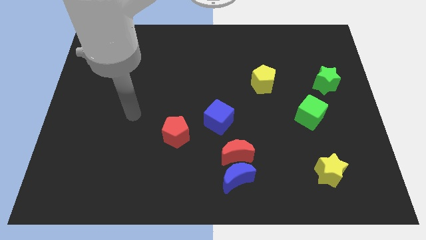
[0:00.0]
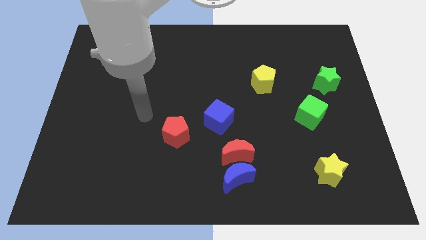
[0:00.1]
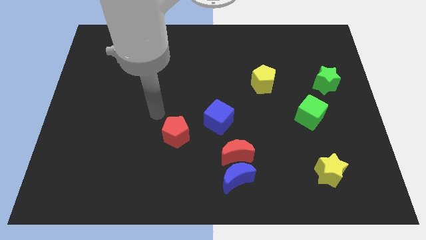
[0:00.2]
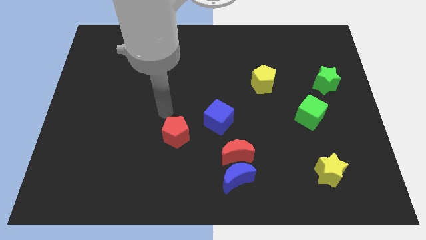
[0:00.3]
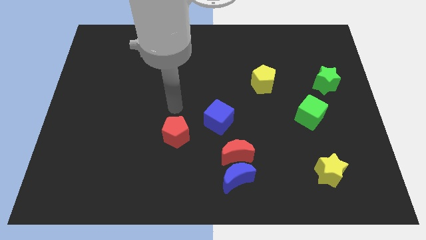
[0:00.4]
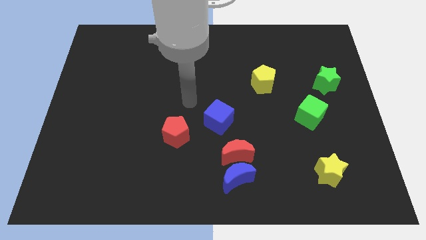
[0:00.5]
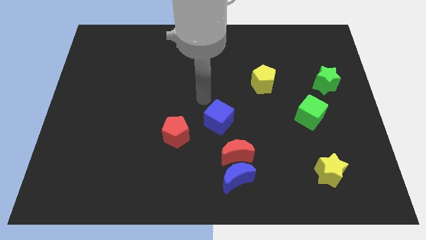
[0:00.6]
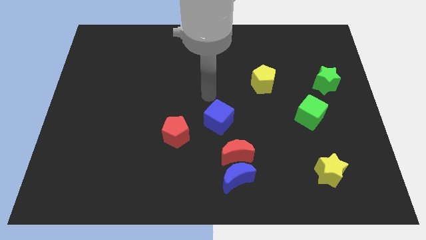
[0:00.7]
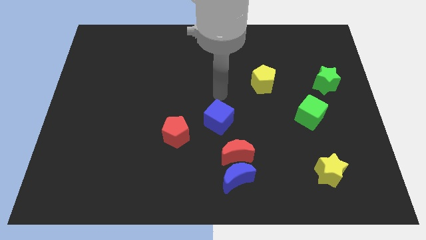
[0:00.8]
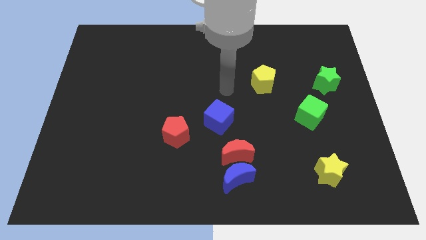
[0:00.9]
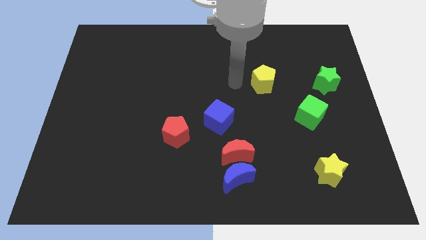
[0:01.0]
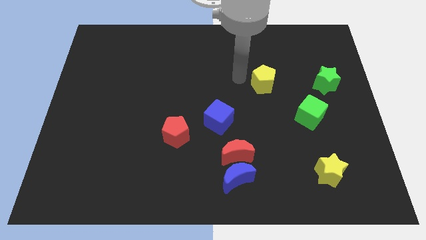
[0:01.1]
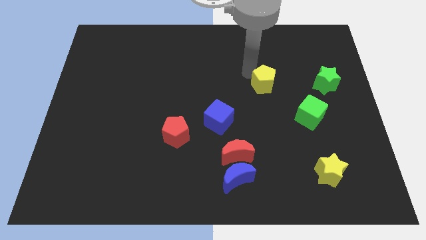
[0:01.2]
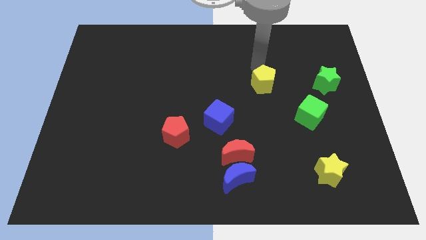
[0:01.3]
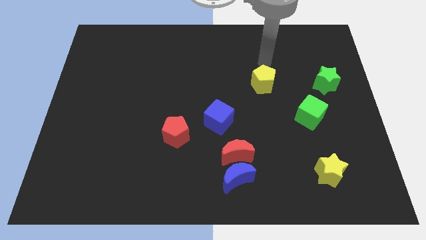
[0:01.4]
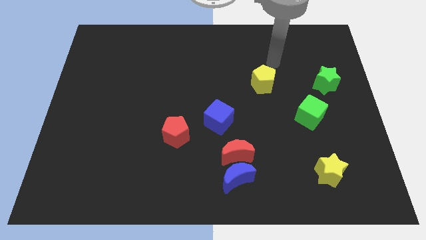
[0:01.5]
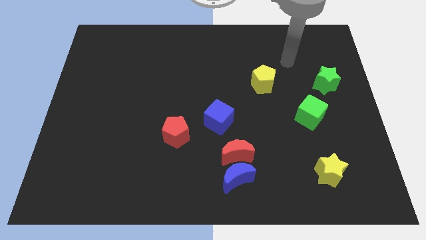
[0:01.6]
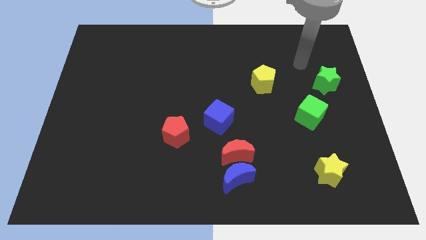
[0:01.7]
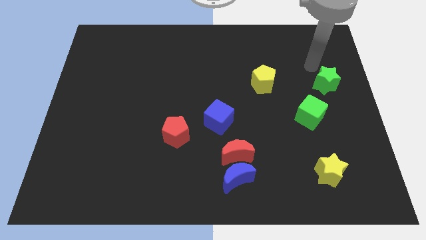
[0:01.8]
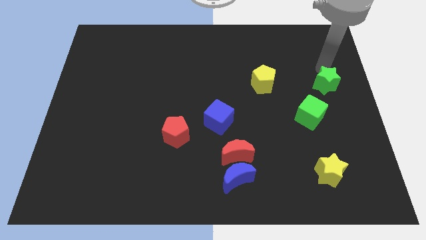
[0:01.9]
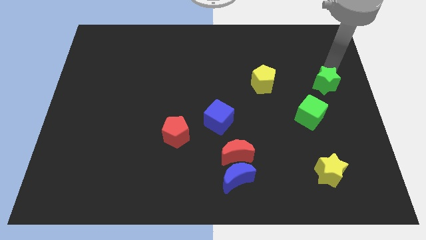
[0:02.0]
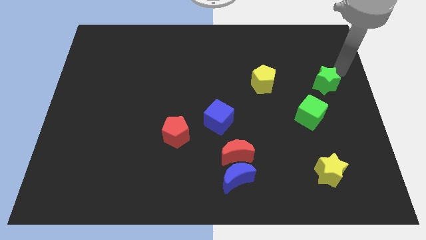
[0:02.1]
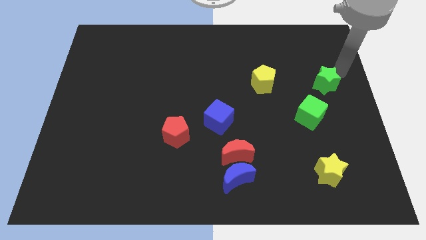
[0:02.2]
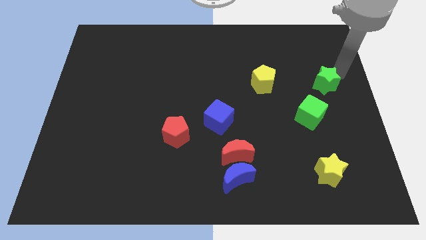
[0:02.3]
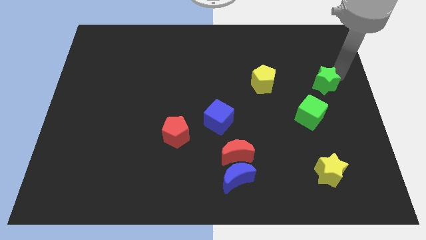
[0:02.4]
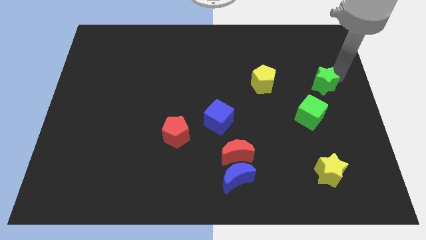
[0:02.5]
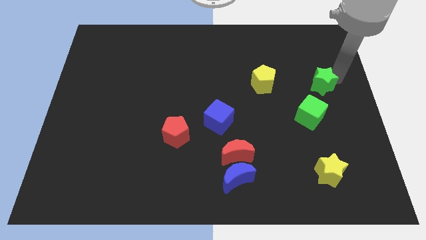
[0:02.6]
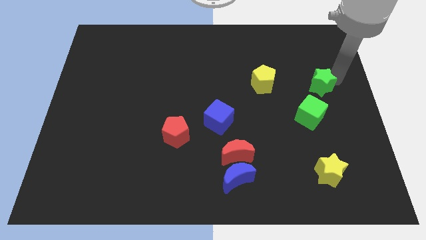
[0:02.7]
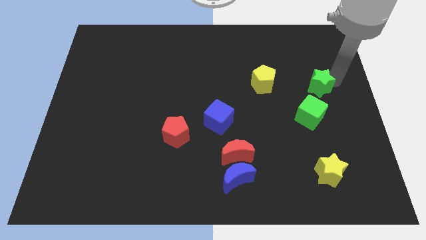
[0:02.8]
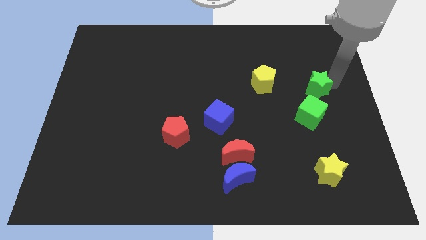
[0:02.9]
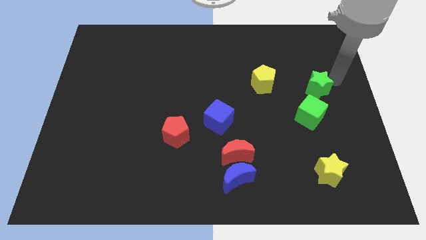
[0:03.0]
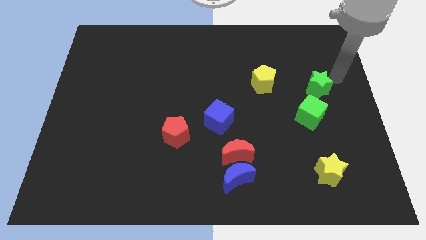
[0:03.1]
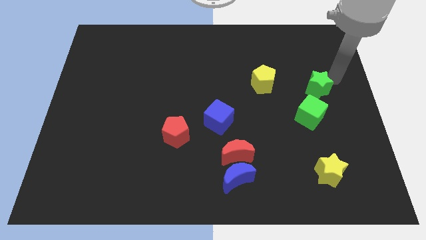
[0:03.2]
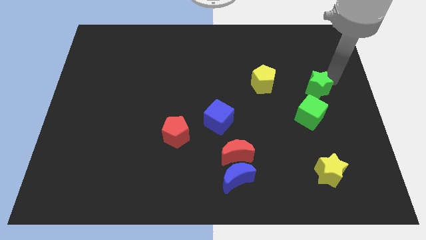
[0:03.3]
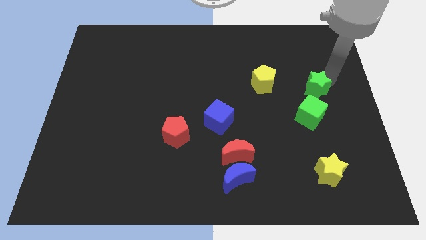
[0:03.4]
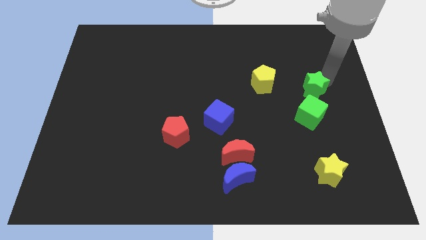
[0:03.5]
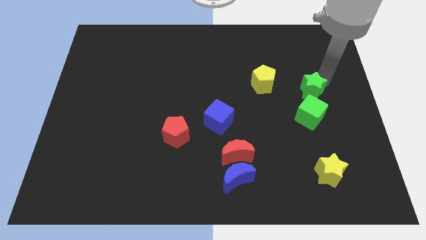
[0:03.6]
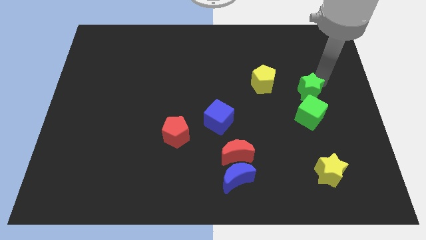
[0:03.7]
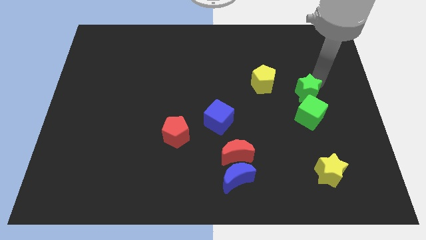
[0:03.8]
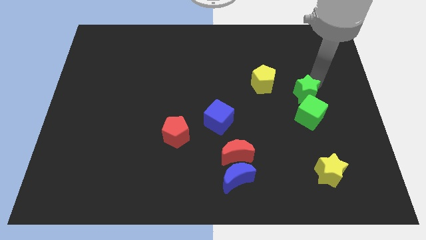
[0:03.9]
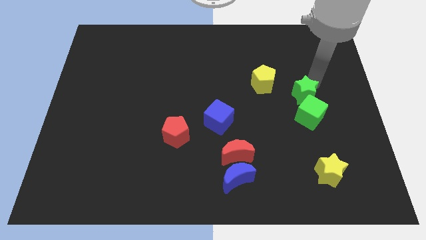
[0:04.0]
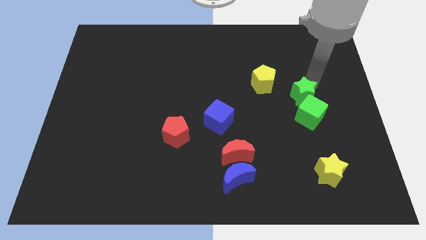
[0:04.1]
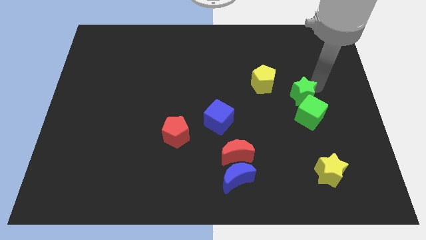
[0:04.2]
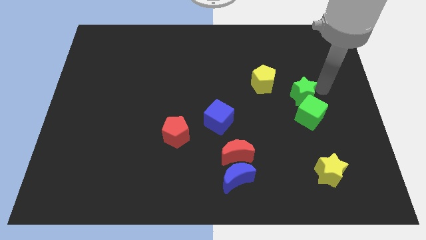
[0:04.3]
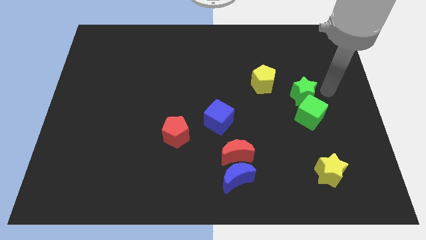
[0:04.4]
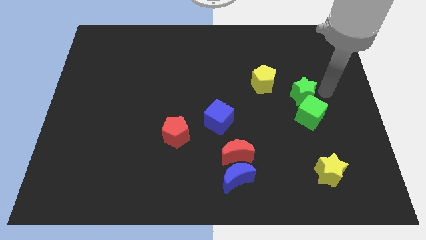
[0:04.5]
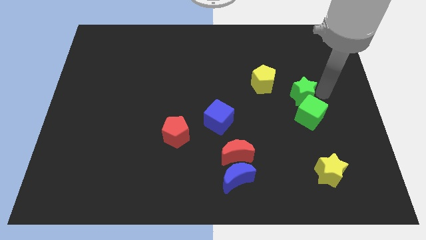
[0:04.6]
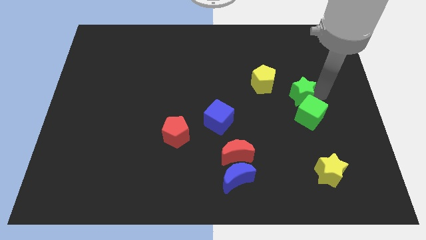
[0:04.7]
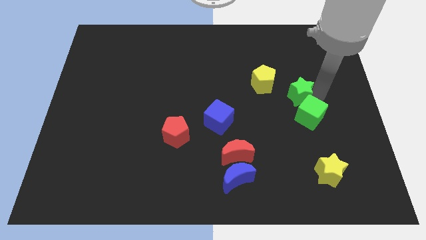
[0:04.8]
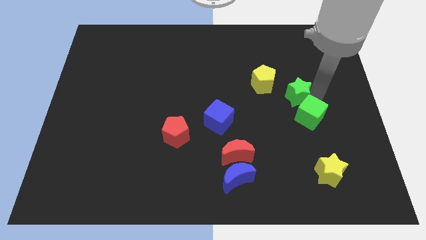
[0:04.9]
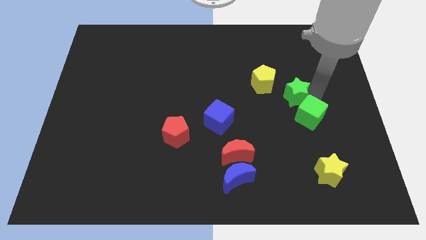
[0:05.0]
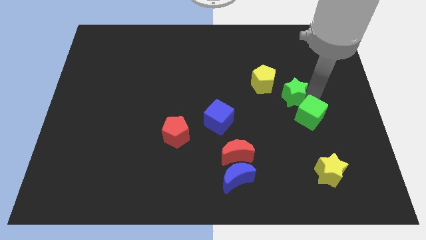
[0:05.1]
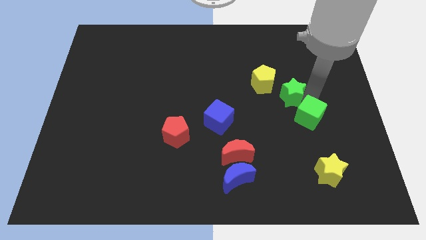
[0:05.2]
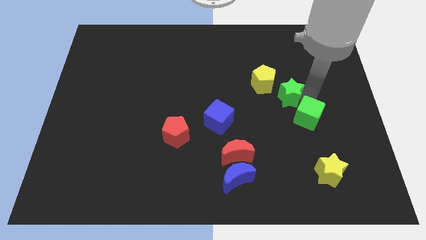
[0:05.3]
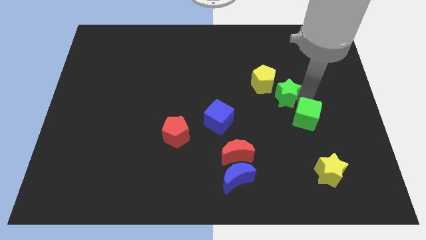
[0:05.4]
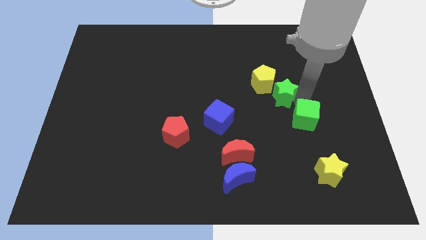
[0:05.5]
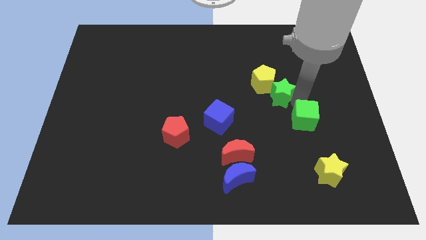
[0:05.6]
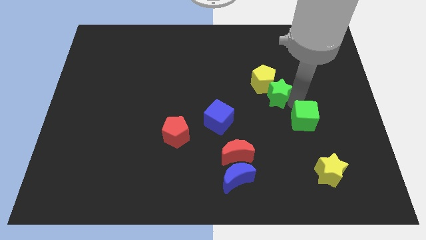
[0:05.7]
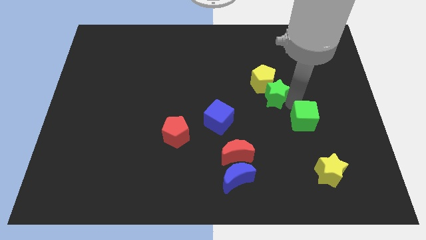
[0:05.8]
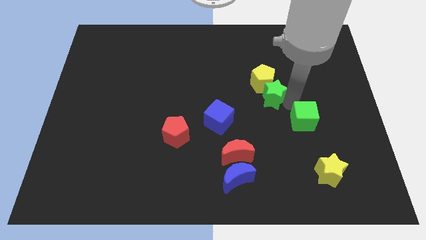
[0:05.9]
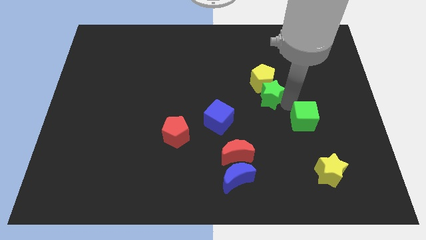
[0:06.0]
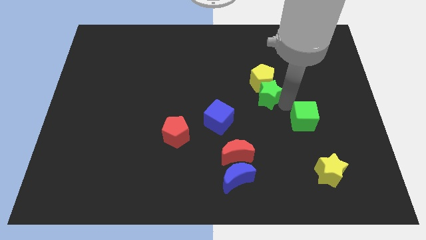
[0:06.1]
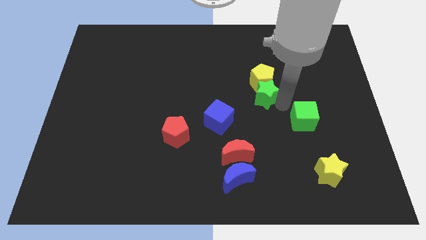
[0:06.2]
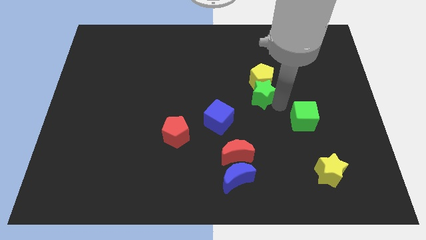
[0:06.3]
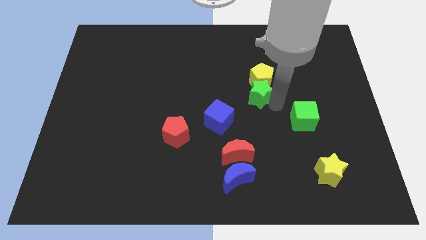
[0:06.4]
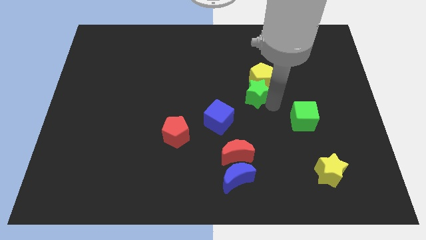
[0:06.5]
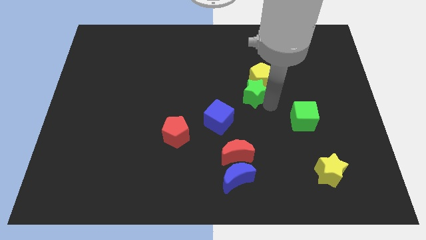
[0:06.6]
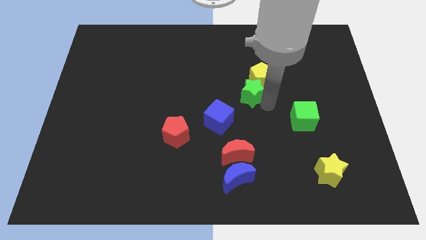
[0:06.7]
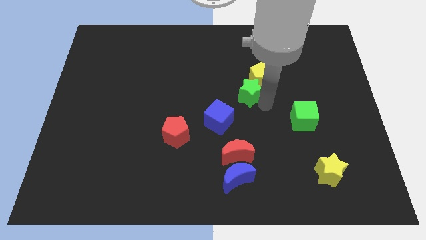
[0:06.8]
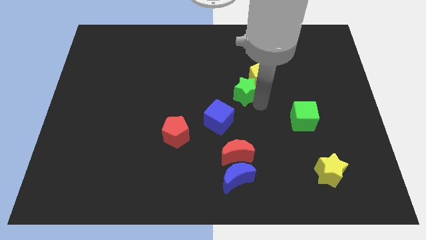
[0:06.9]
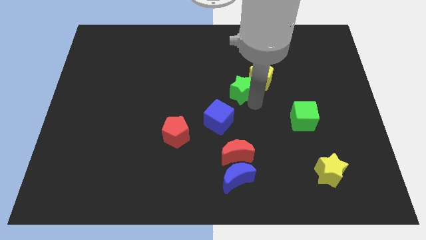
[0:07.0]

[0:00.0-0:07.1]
push the green star to the left

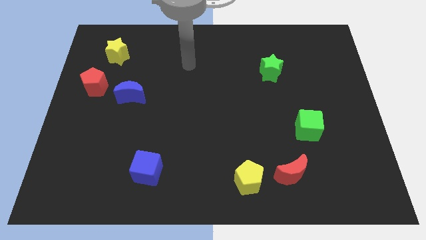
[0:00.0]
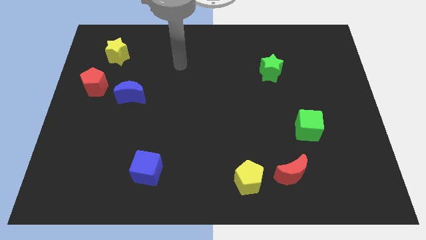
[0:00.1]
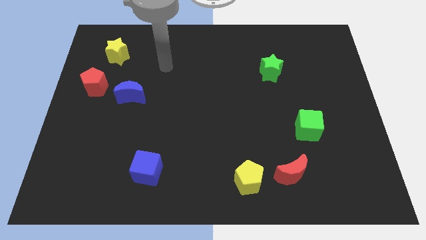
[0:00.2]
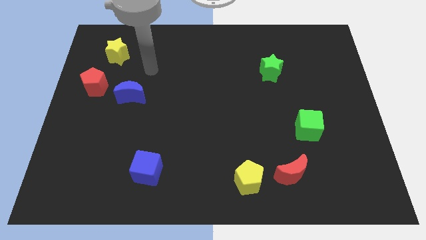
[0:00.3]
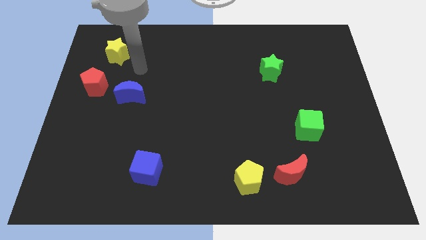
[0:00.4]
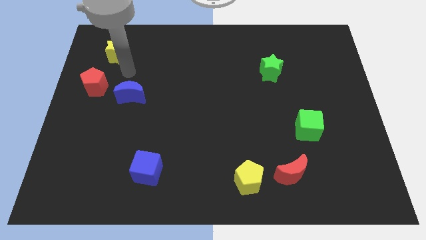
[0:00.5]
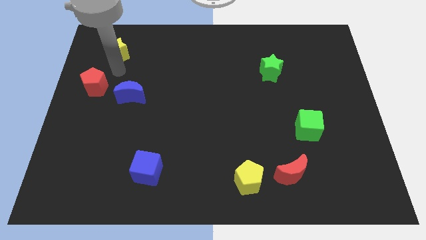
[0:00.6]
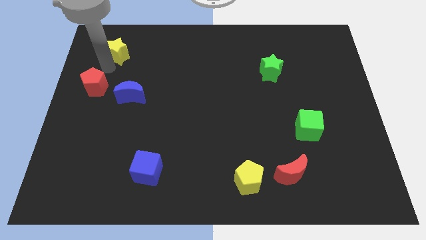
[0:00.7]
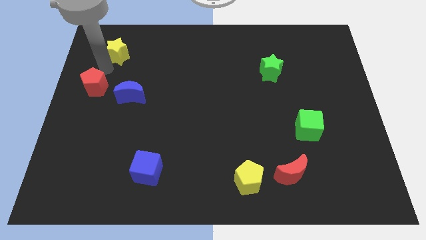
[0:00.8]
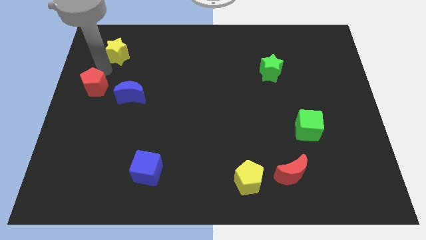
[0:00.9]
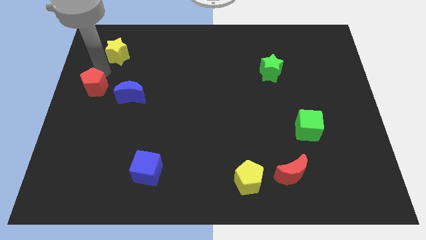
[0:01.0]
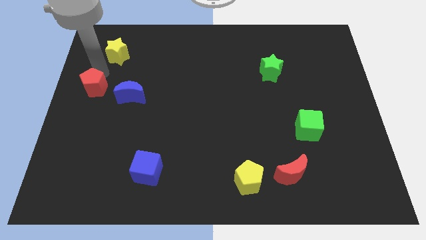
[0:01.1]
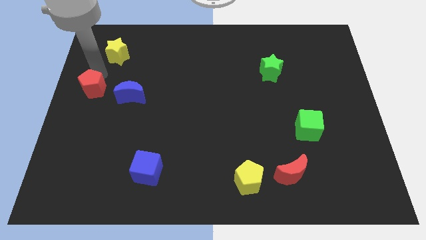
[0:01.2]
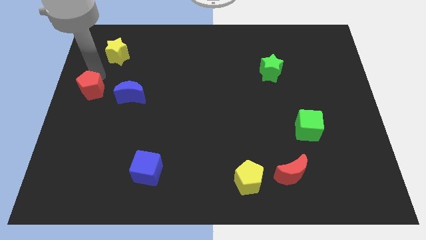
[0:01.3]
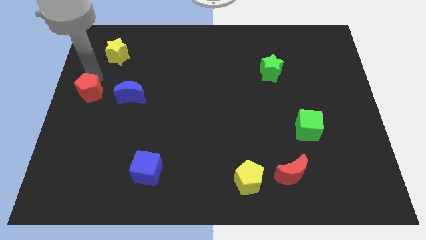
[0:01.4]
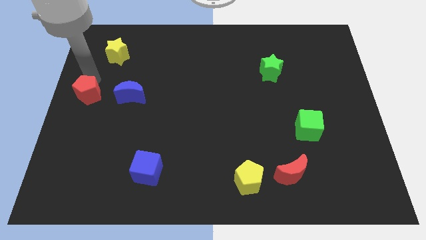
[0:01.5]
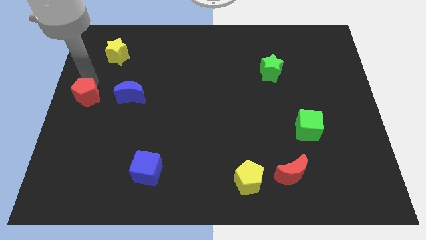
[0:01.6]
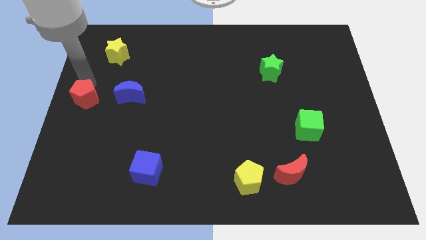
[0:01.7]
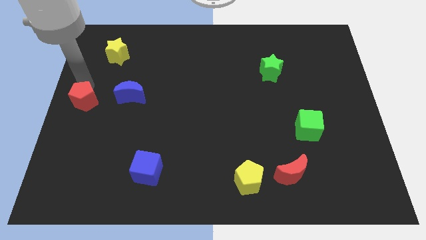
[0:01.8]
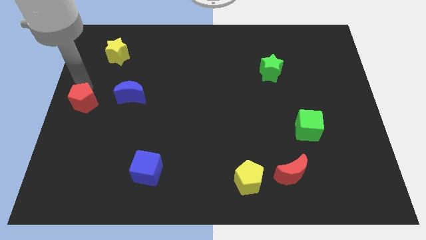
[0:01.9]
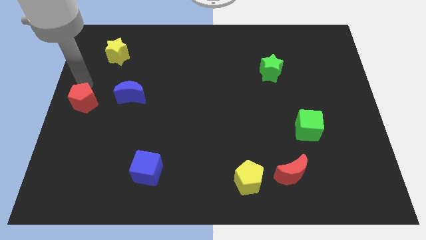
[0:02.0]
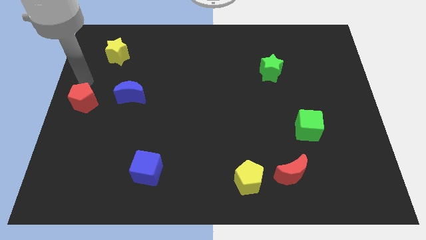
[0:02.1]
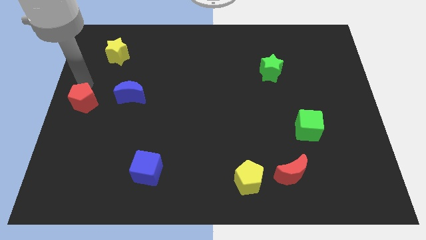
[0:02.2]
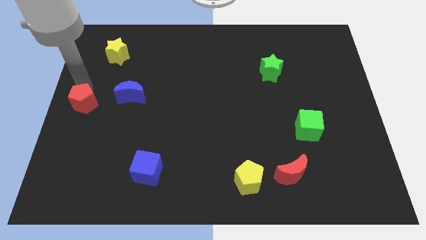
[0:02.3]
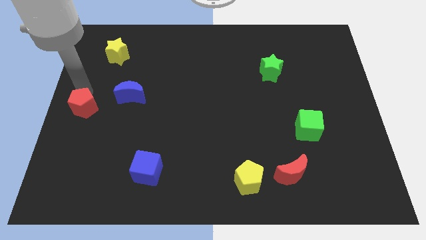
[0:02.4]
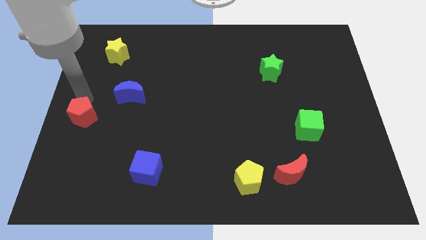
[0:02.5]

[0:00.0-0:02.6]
push the red pentagon down a little bit
